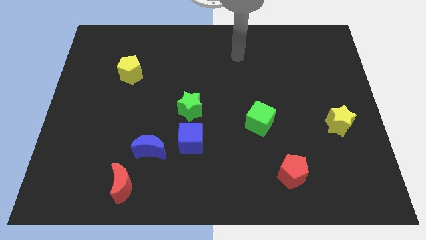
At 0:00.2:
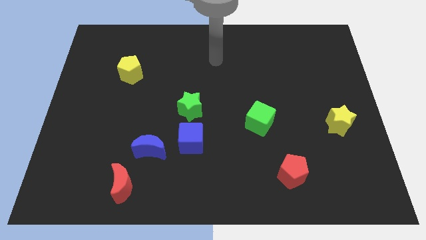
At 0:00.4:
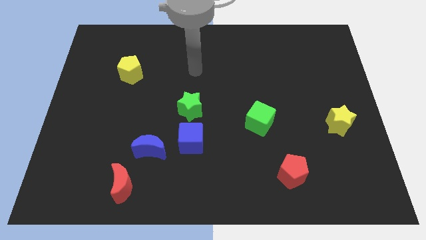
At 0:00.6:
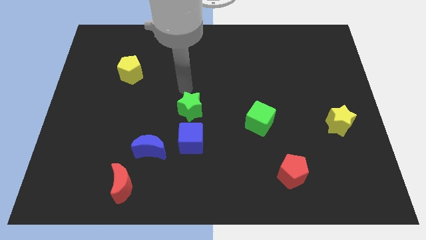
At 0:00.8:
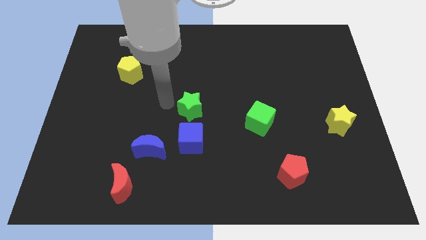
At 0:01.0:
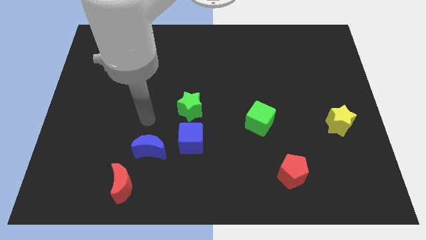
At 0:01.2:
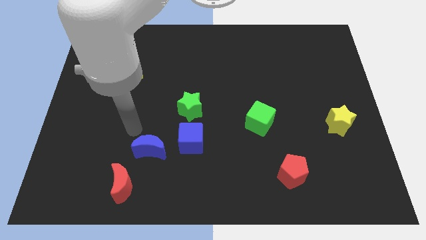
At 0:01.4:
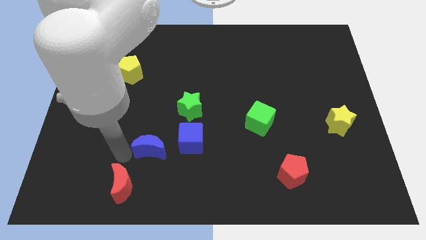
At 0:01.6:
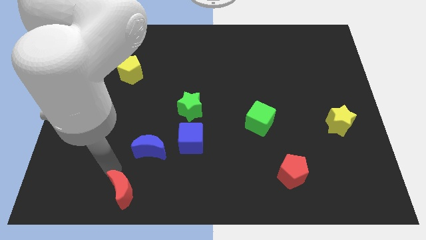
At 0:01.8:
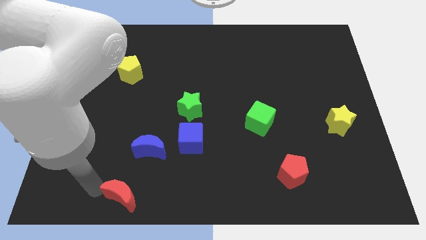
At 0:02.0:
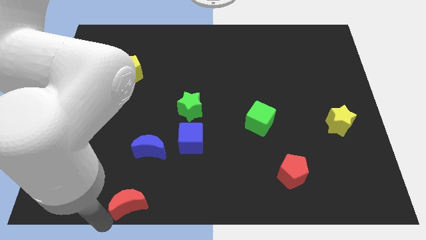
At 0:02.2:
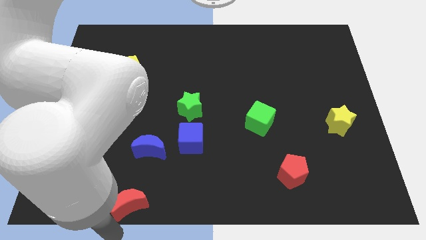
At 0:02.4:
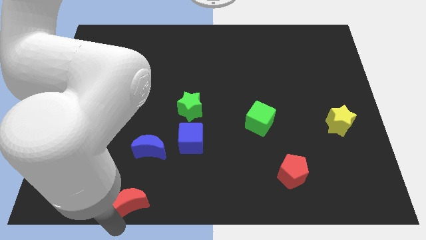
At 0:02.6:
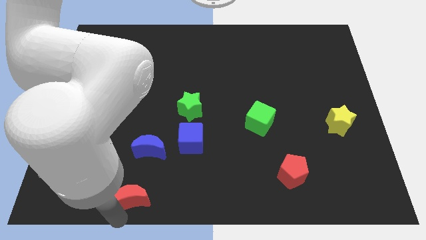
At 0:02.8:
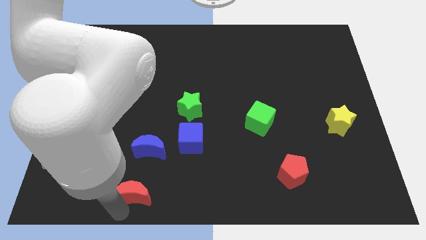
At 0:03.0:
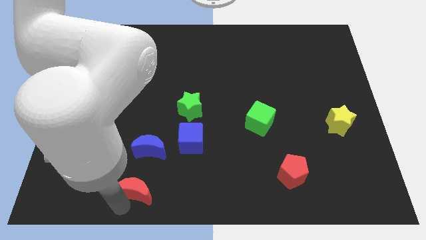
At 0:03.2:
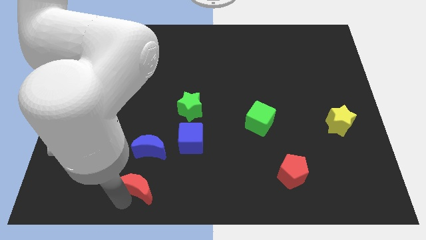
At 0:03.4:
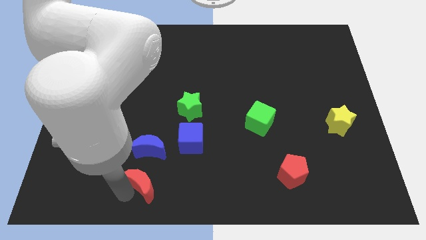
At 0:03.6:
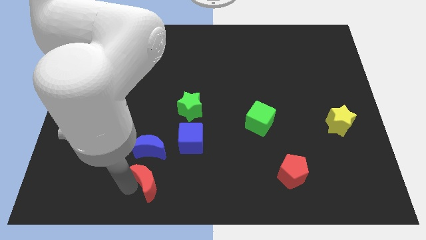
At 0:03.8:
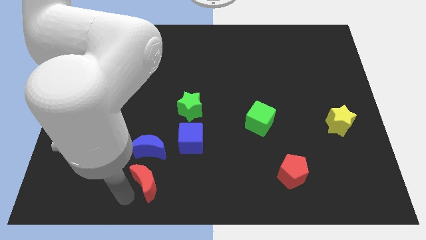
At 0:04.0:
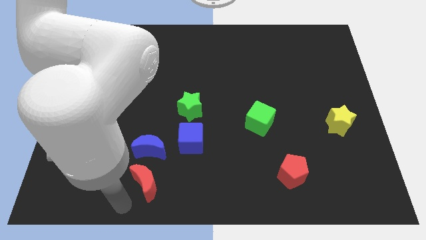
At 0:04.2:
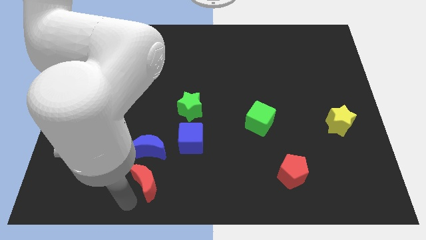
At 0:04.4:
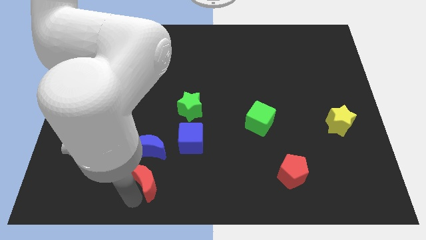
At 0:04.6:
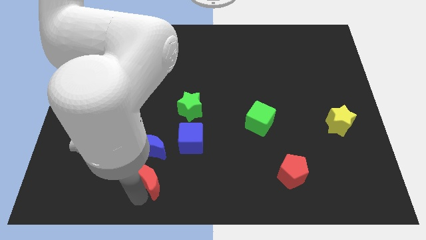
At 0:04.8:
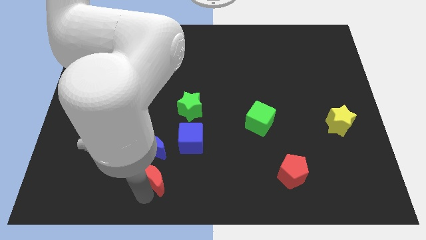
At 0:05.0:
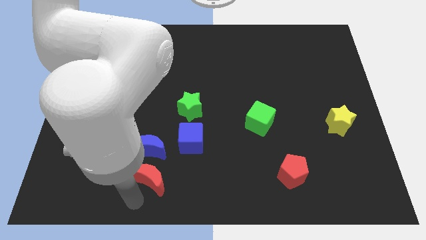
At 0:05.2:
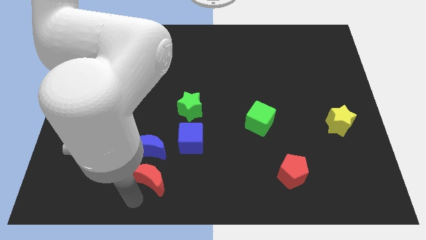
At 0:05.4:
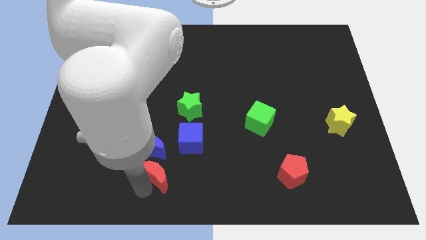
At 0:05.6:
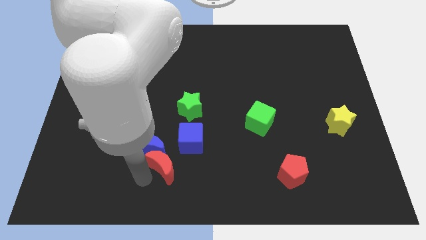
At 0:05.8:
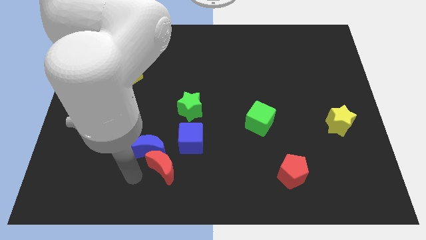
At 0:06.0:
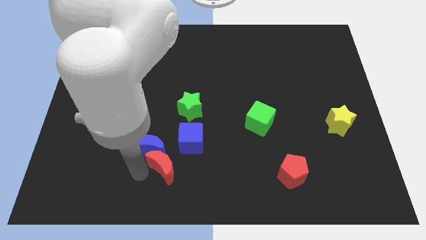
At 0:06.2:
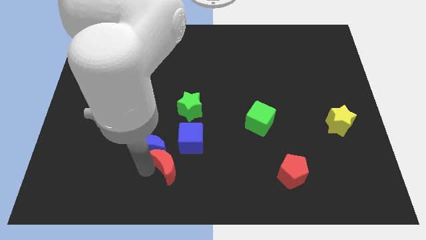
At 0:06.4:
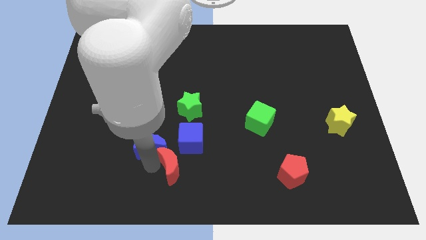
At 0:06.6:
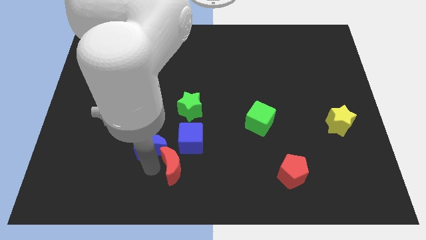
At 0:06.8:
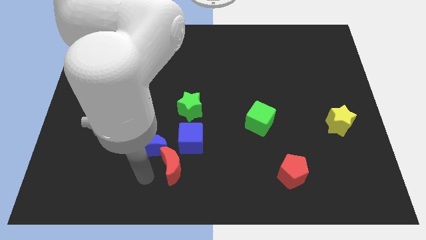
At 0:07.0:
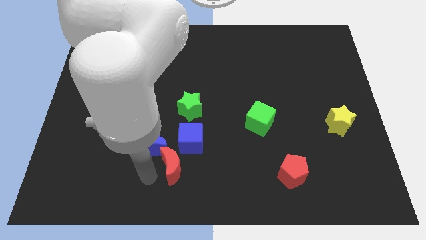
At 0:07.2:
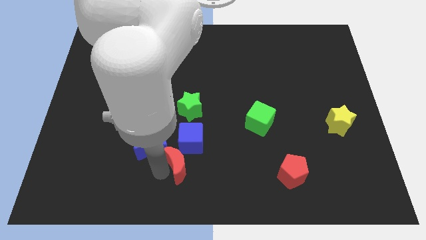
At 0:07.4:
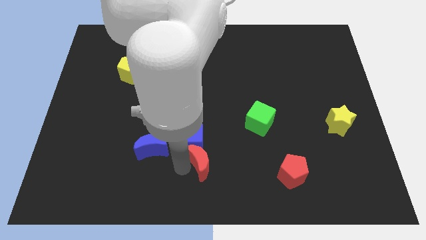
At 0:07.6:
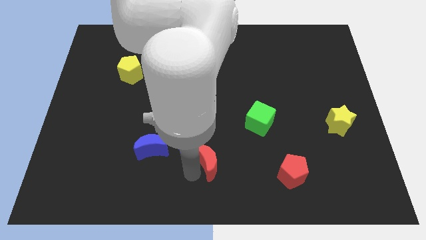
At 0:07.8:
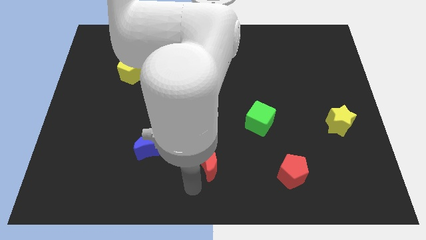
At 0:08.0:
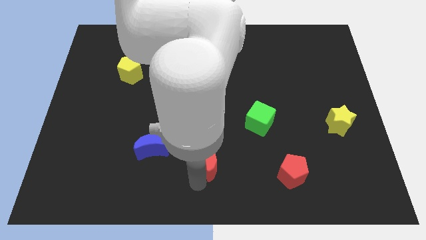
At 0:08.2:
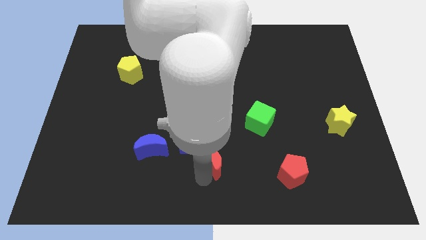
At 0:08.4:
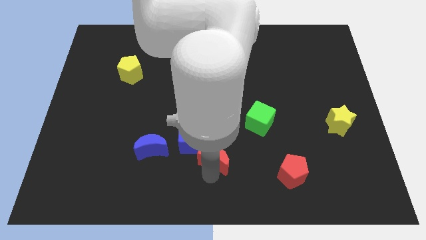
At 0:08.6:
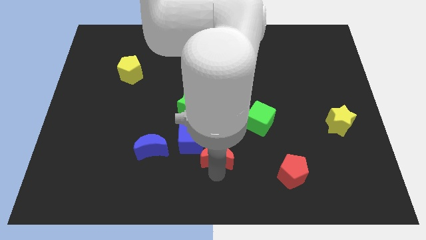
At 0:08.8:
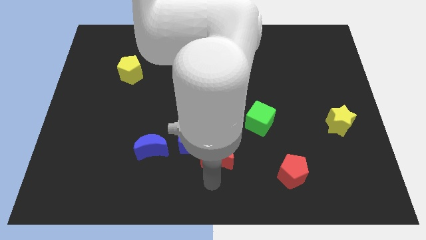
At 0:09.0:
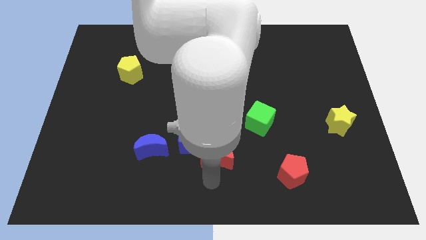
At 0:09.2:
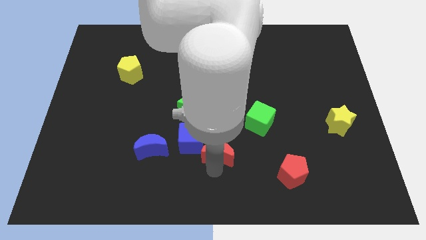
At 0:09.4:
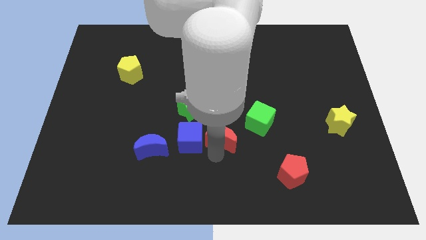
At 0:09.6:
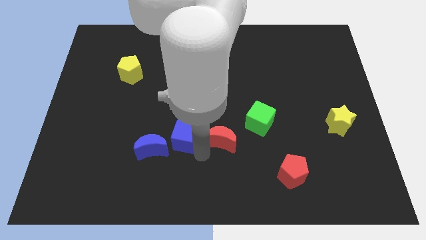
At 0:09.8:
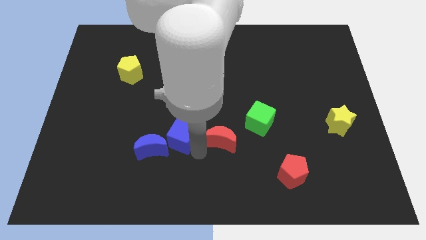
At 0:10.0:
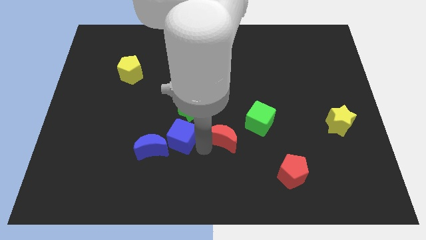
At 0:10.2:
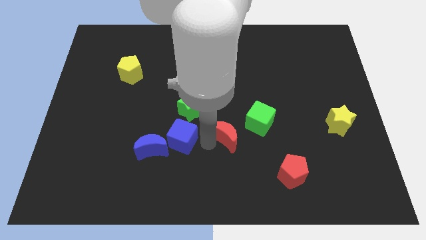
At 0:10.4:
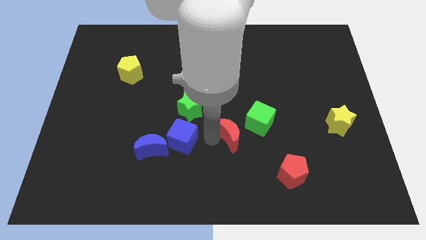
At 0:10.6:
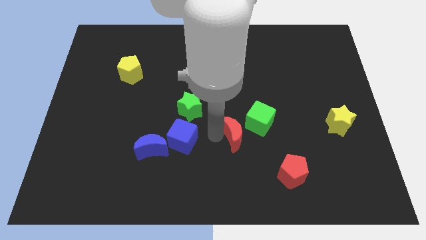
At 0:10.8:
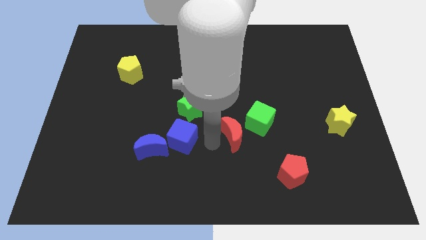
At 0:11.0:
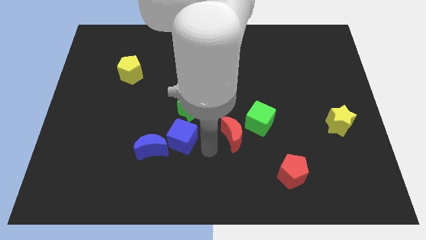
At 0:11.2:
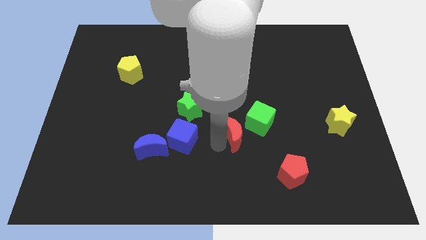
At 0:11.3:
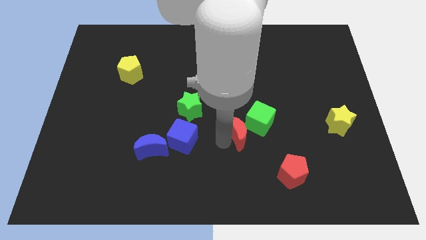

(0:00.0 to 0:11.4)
push the red moon to the green cube

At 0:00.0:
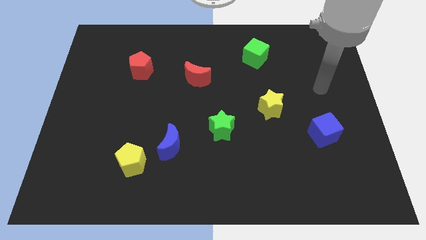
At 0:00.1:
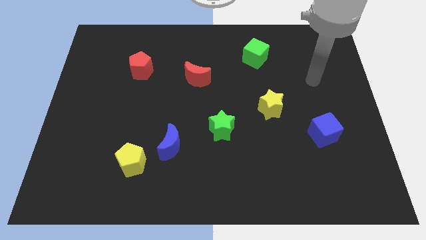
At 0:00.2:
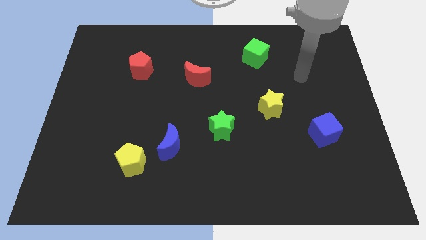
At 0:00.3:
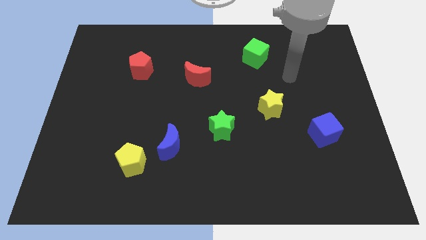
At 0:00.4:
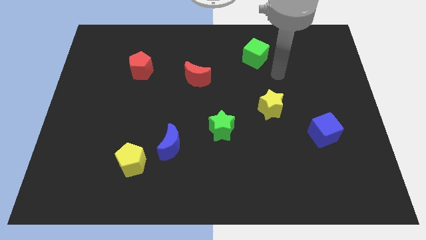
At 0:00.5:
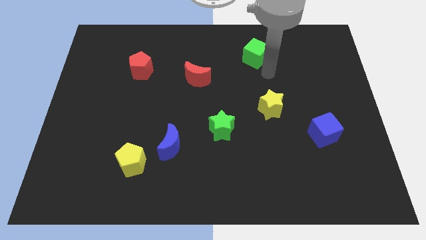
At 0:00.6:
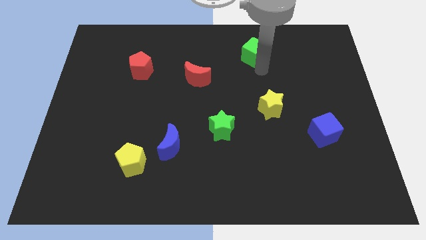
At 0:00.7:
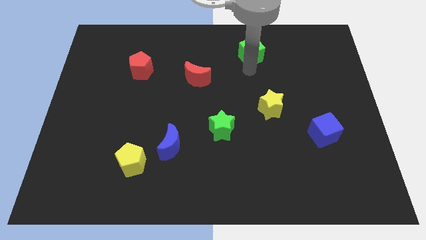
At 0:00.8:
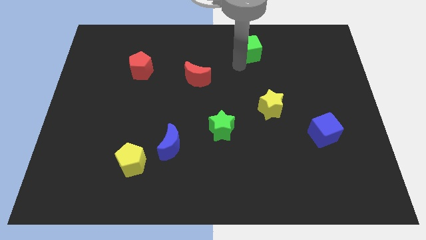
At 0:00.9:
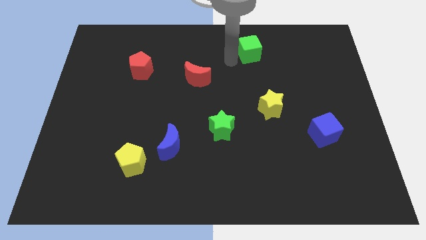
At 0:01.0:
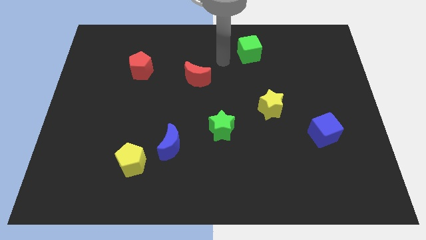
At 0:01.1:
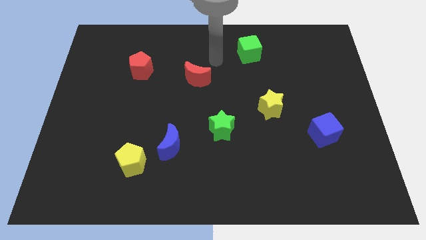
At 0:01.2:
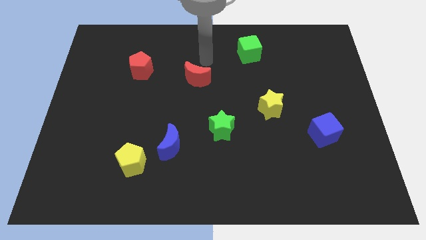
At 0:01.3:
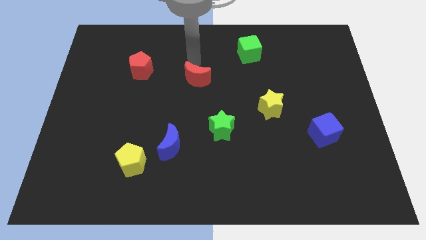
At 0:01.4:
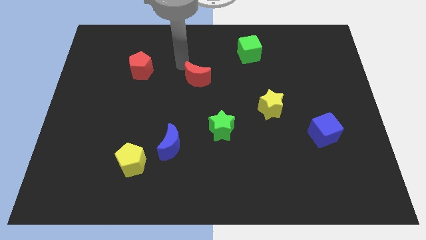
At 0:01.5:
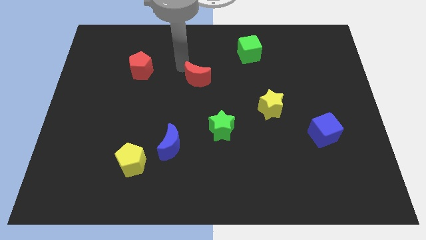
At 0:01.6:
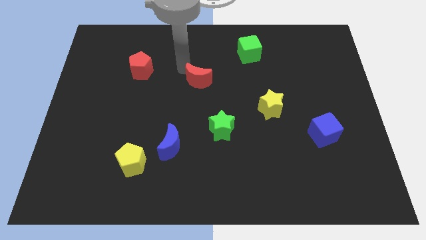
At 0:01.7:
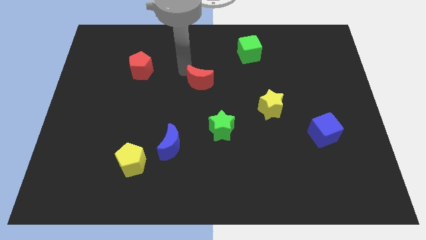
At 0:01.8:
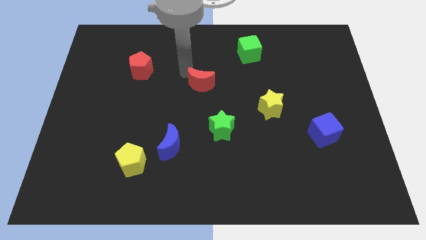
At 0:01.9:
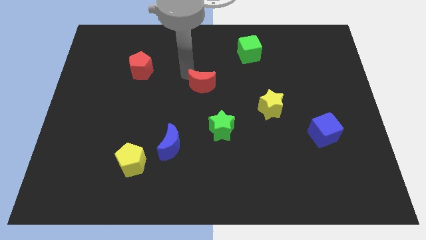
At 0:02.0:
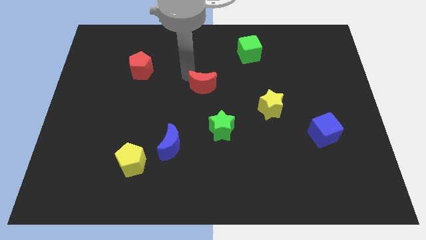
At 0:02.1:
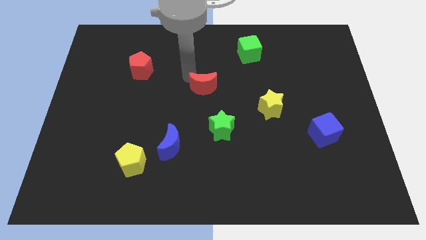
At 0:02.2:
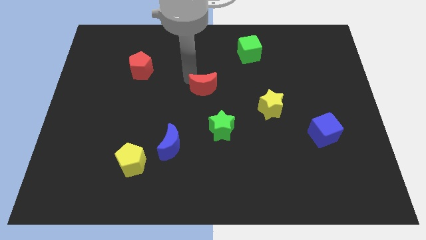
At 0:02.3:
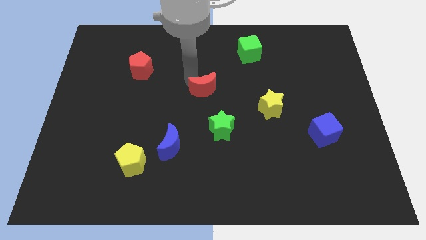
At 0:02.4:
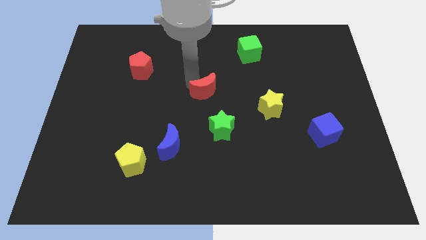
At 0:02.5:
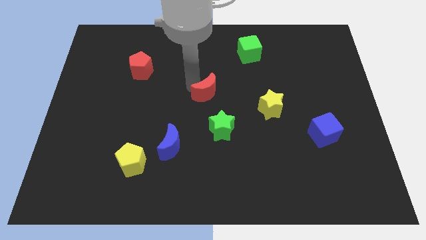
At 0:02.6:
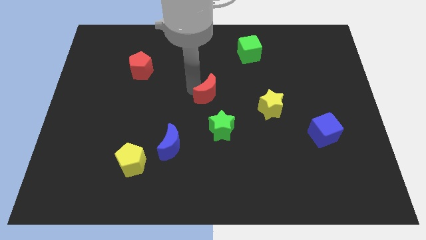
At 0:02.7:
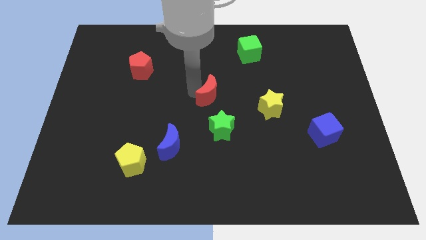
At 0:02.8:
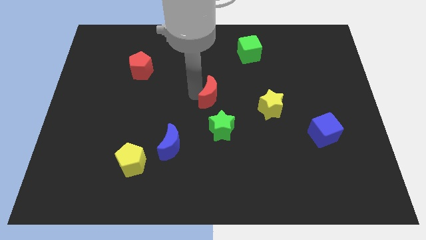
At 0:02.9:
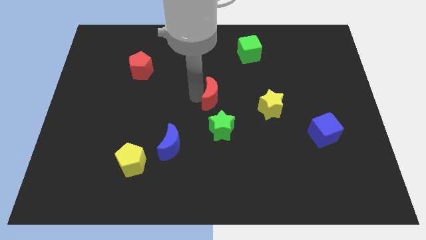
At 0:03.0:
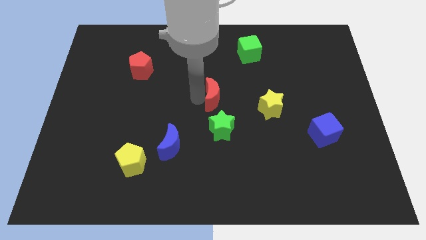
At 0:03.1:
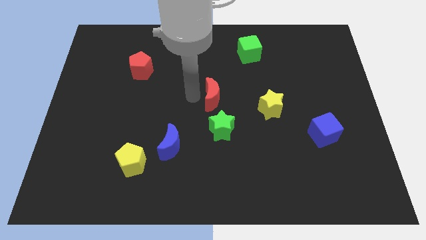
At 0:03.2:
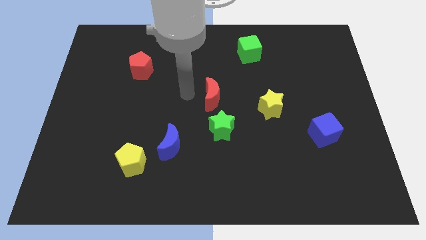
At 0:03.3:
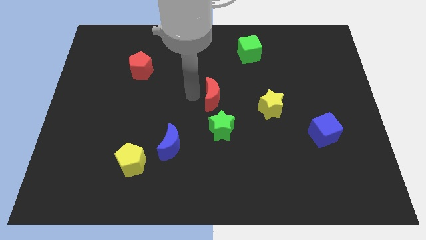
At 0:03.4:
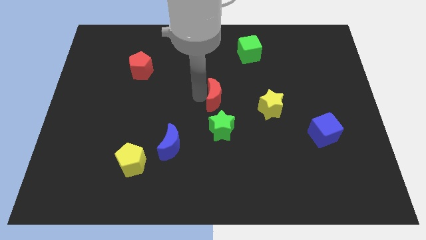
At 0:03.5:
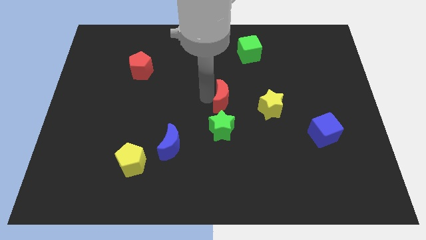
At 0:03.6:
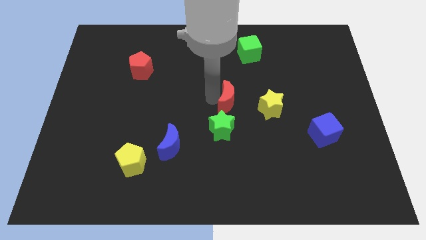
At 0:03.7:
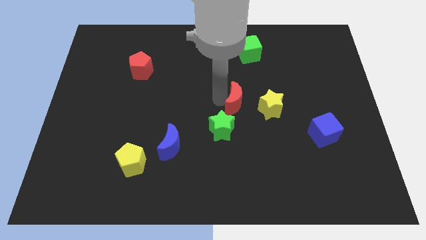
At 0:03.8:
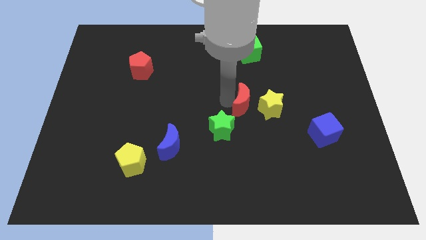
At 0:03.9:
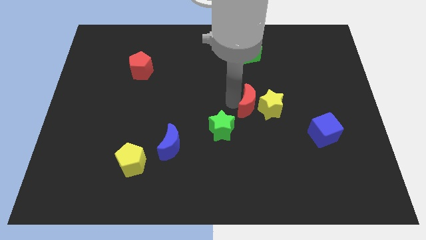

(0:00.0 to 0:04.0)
push the red moon towards the yellow star
